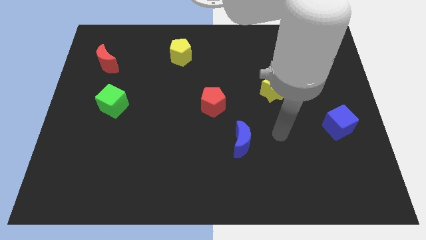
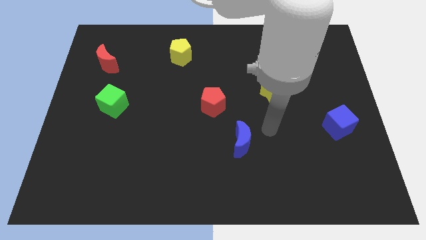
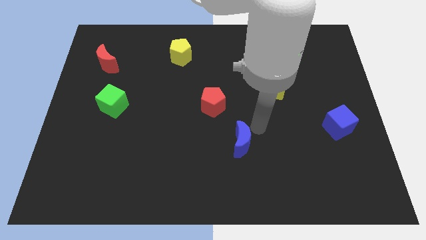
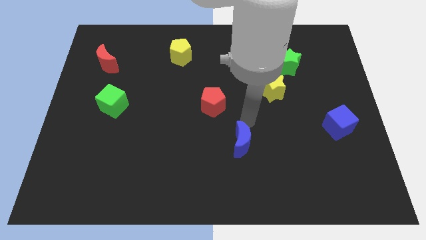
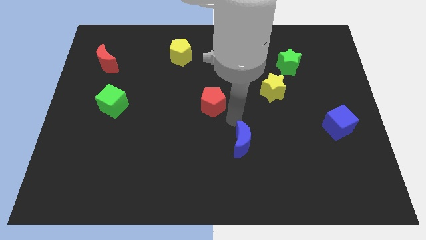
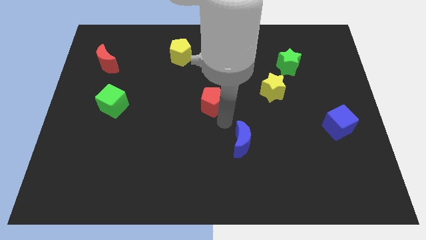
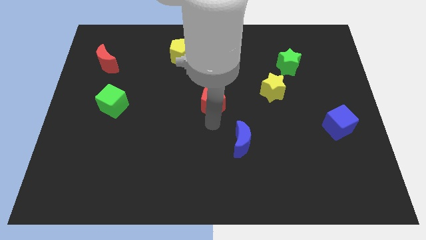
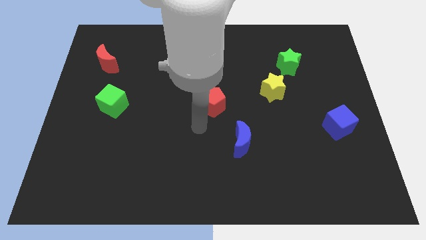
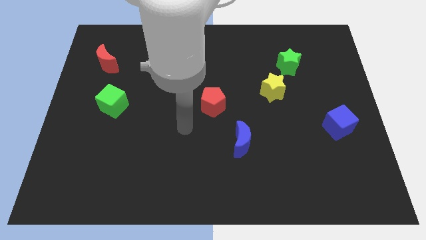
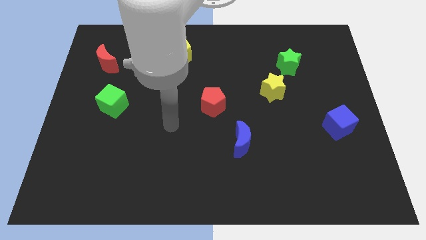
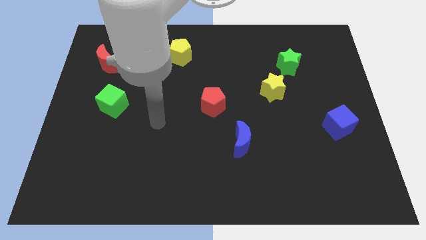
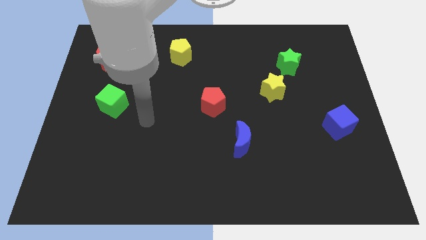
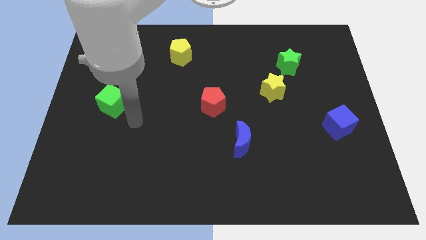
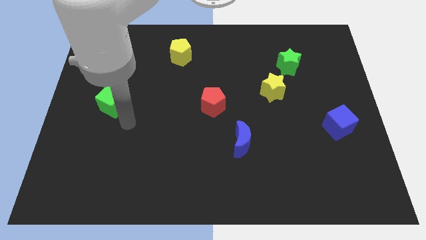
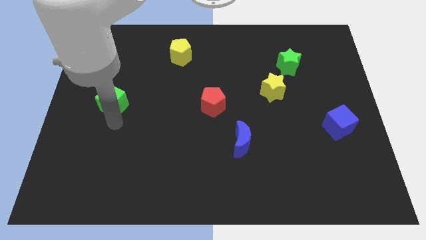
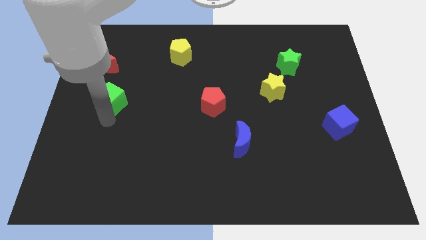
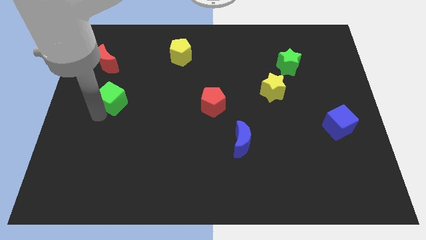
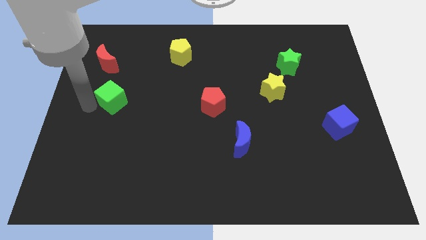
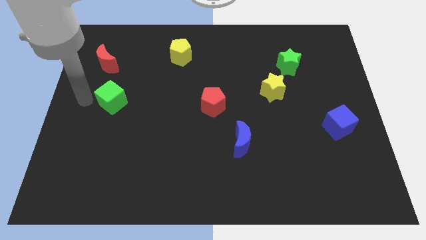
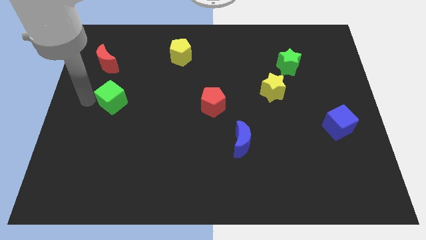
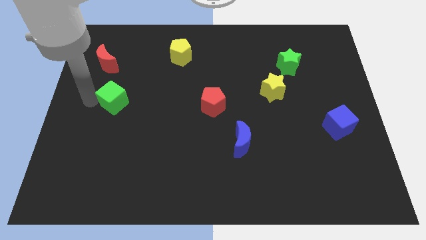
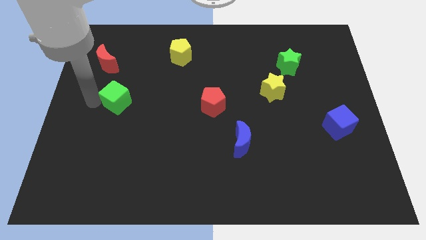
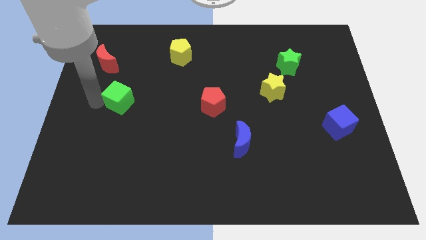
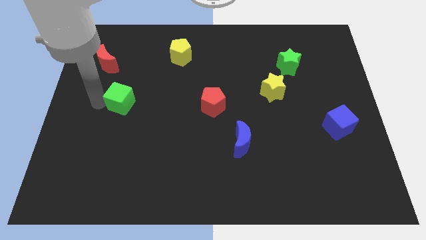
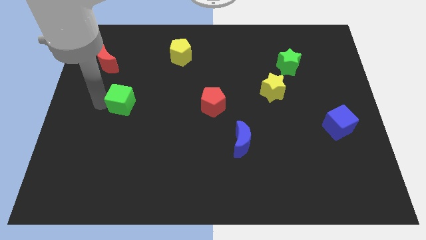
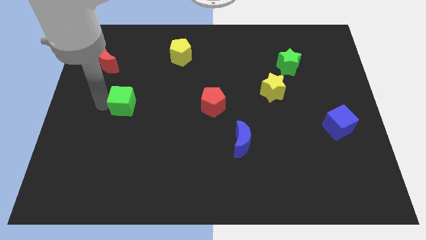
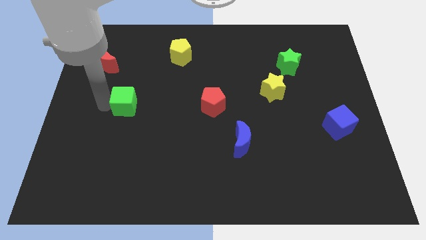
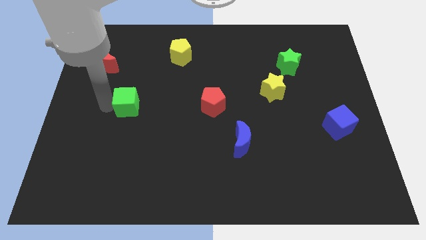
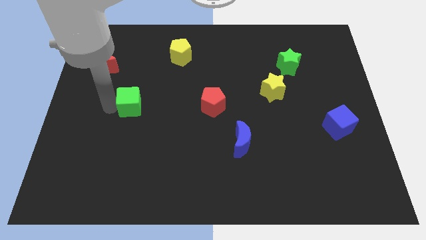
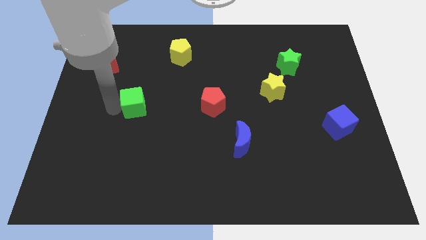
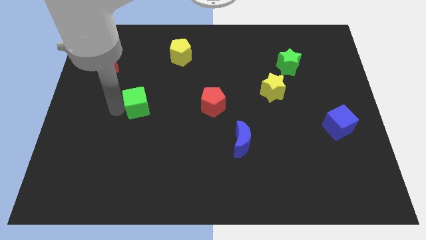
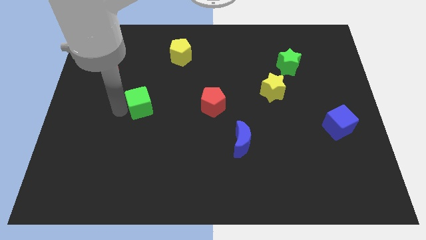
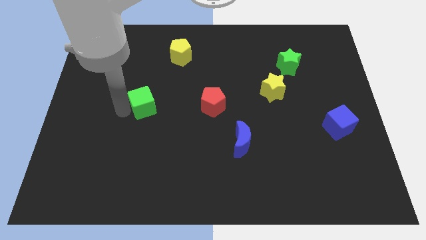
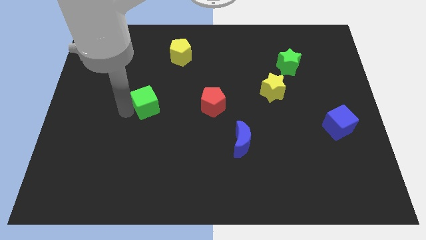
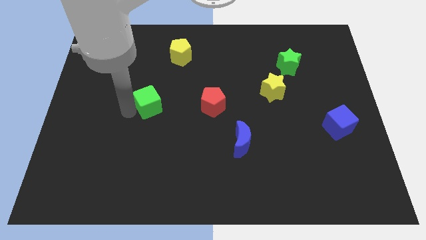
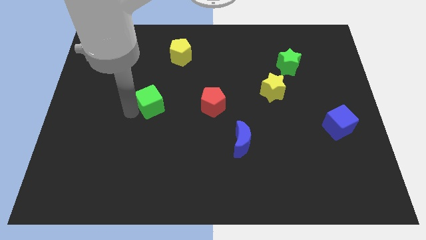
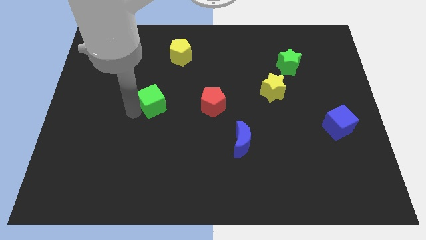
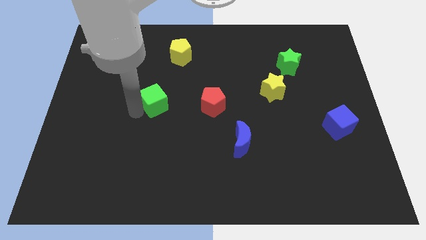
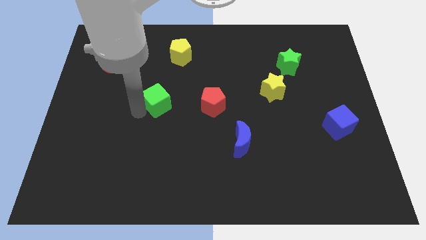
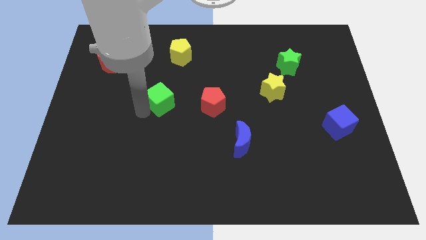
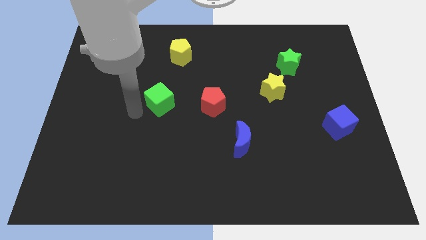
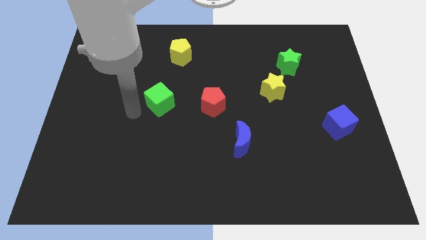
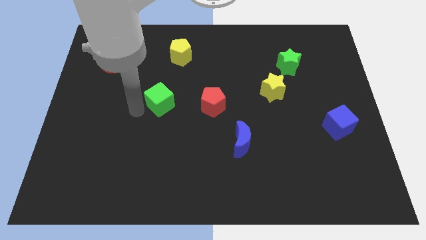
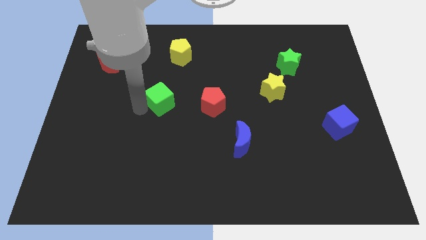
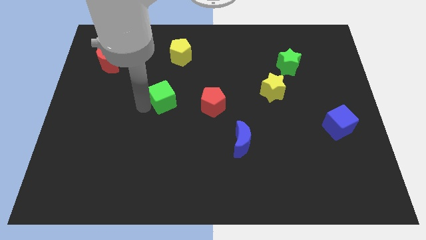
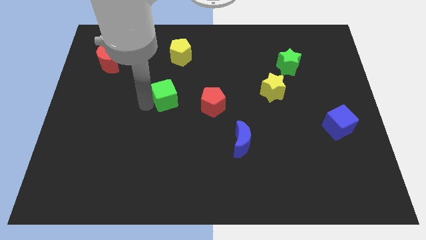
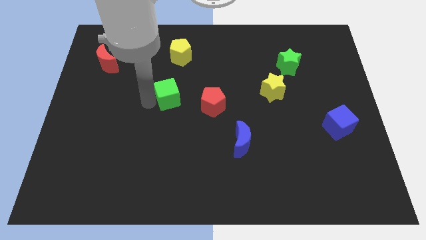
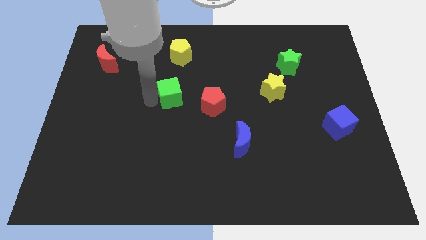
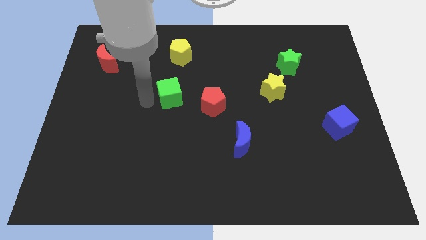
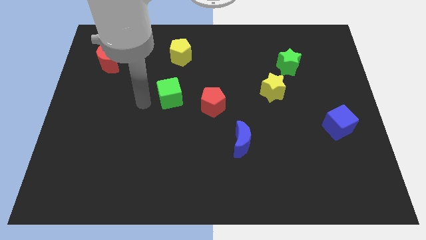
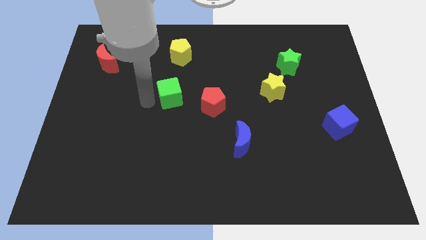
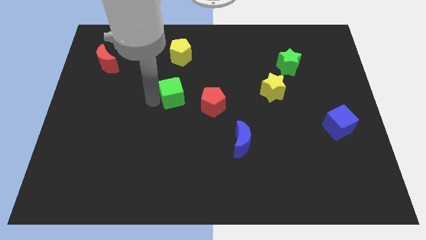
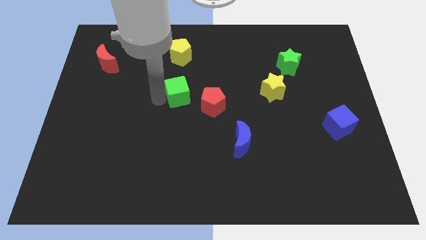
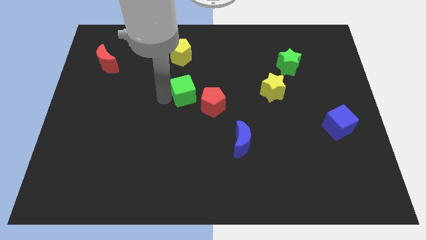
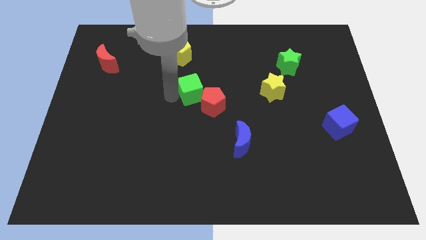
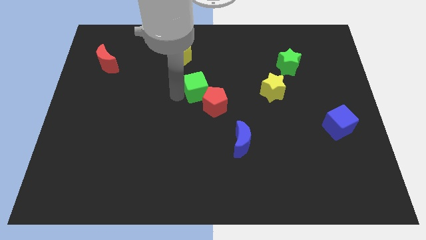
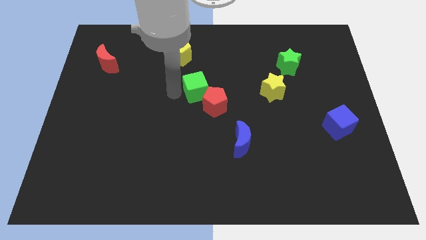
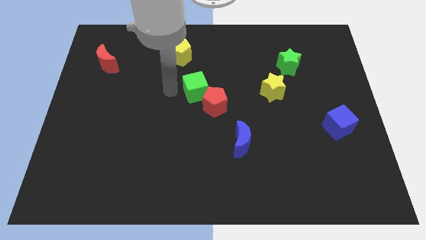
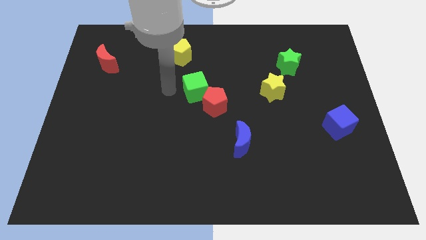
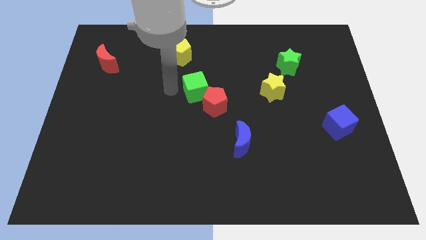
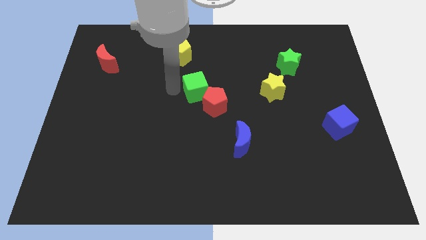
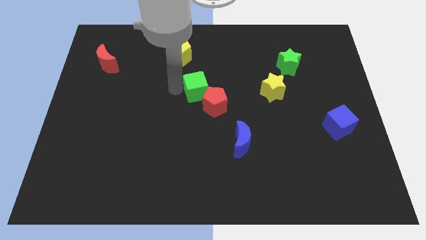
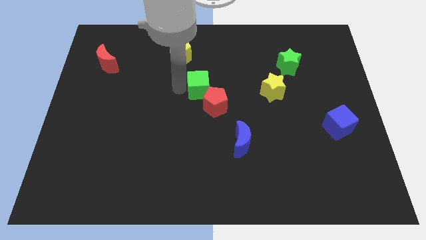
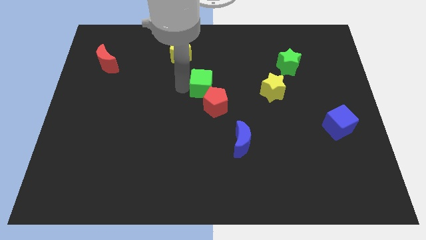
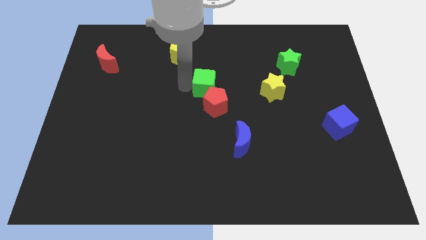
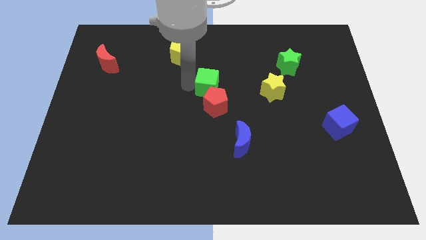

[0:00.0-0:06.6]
slide the green cube just left of the yellow star
